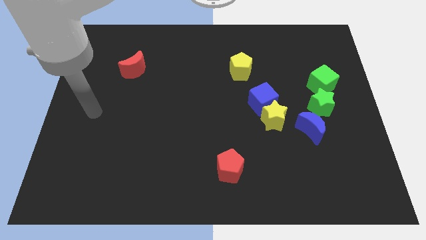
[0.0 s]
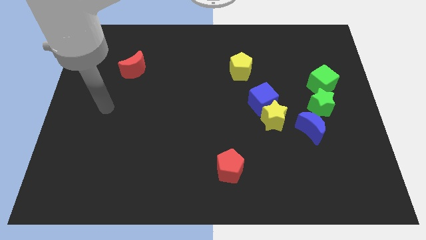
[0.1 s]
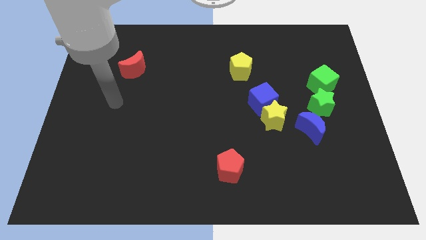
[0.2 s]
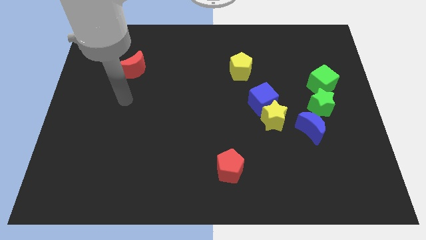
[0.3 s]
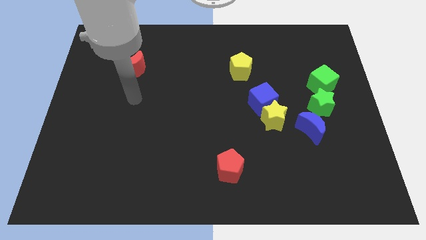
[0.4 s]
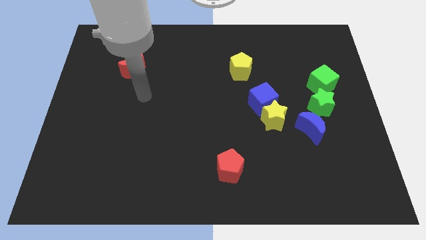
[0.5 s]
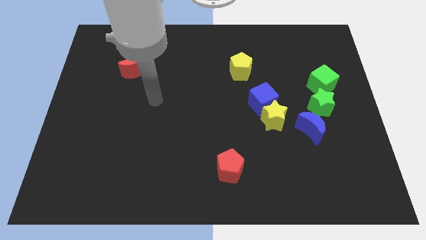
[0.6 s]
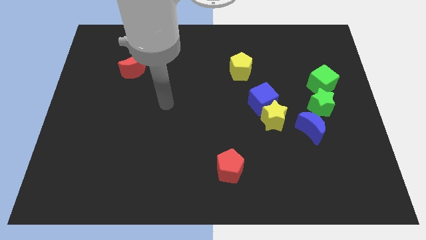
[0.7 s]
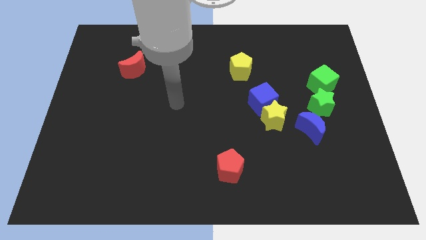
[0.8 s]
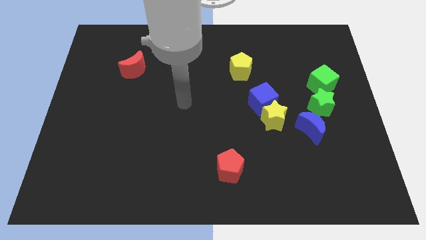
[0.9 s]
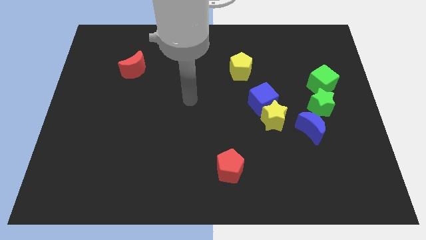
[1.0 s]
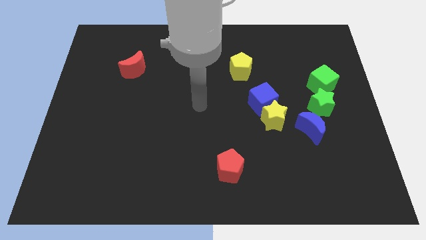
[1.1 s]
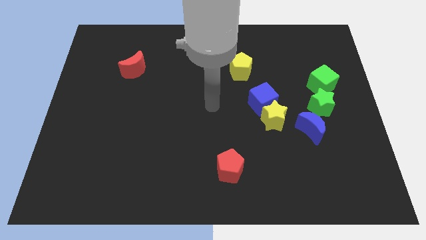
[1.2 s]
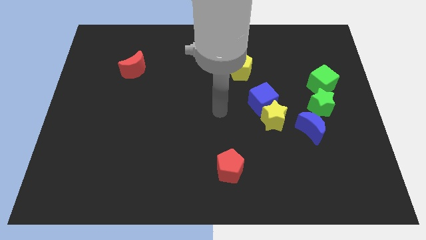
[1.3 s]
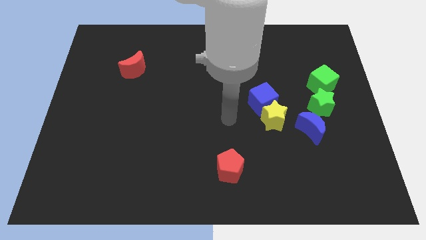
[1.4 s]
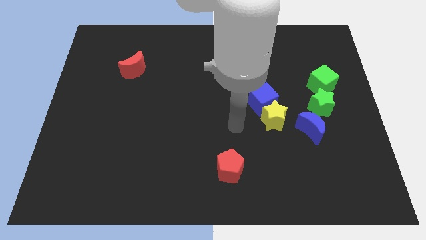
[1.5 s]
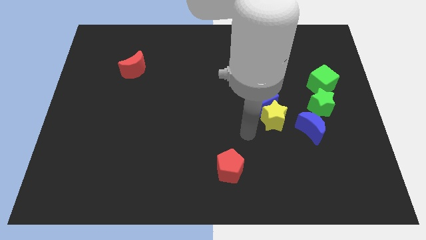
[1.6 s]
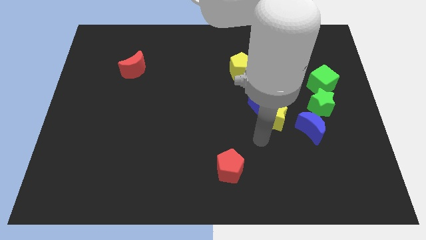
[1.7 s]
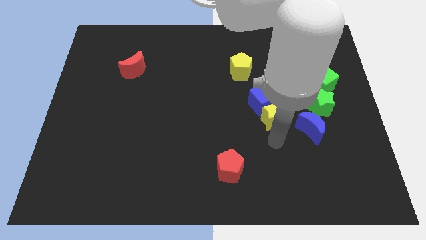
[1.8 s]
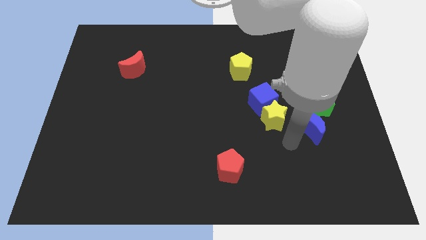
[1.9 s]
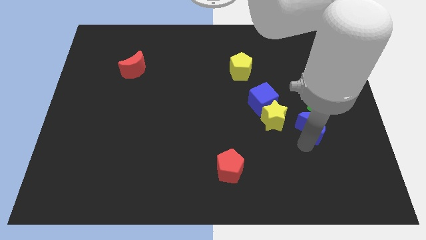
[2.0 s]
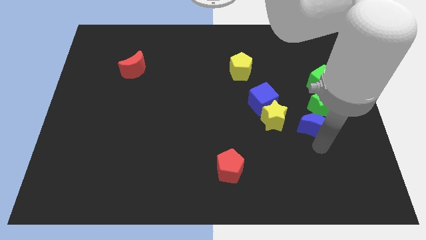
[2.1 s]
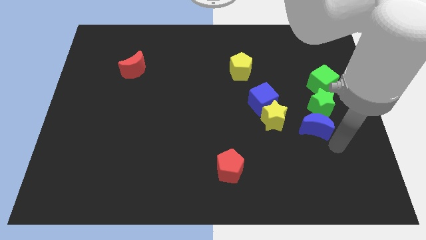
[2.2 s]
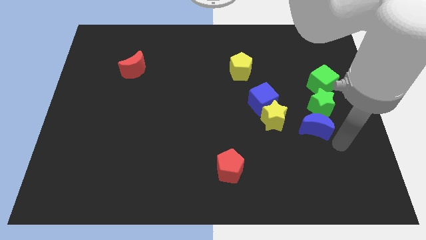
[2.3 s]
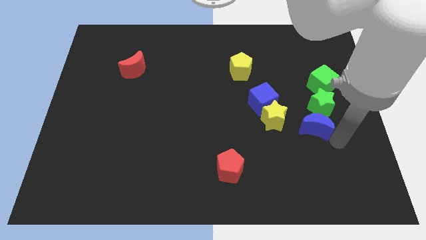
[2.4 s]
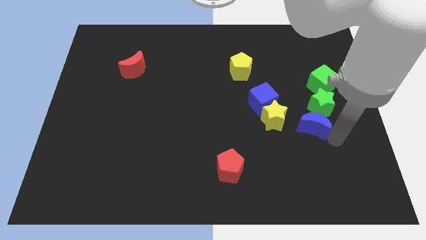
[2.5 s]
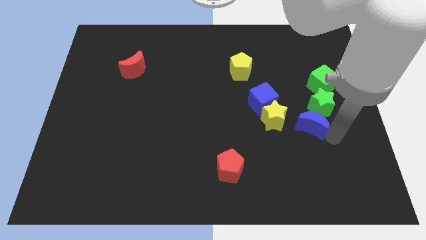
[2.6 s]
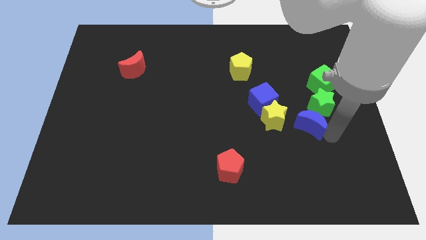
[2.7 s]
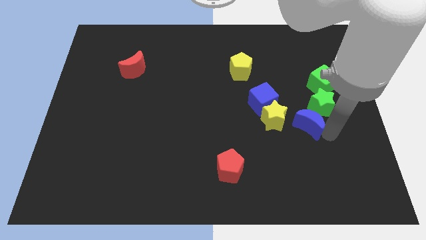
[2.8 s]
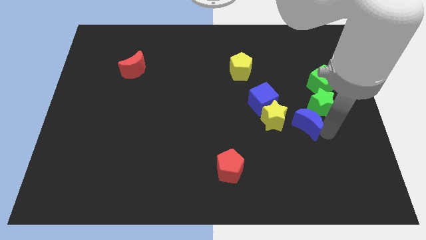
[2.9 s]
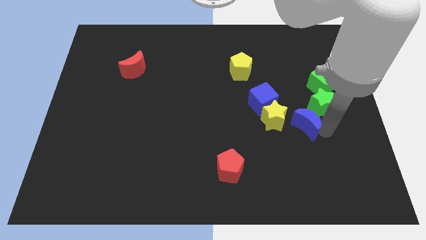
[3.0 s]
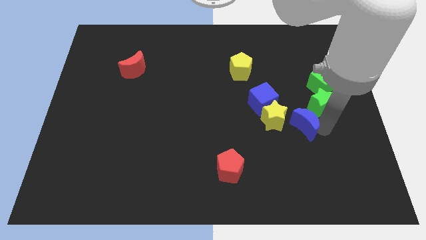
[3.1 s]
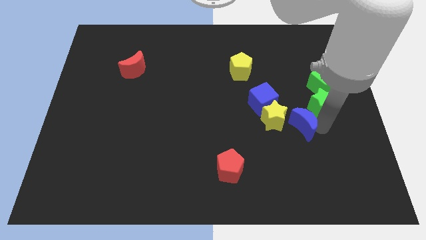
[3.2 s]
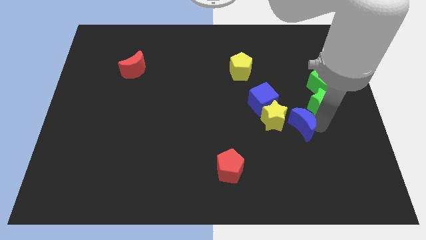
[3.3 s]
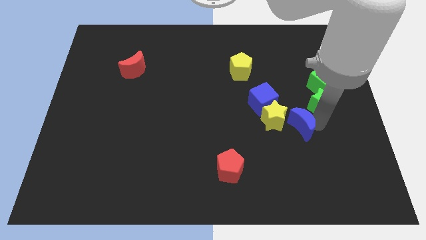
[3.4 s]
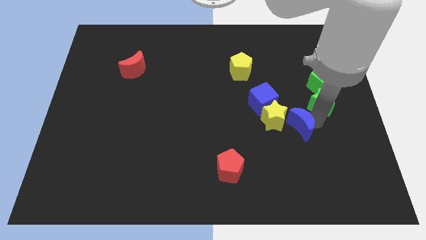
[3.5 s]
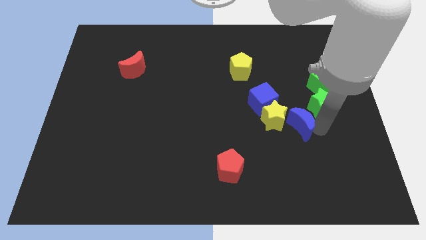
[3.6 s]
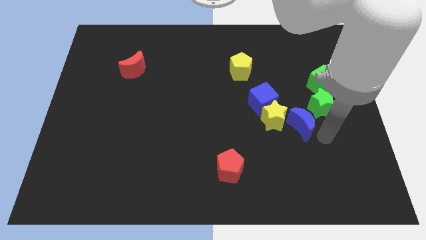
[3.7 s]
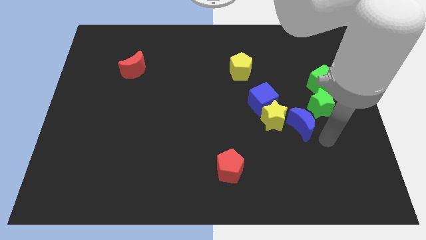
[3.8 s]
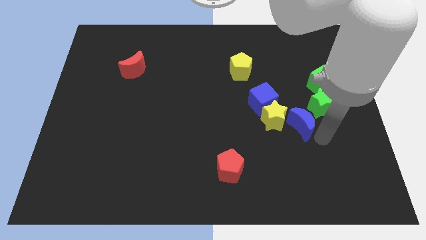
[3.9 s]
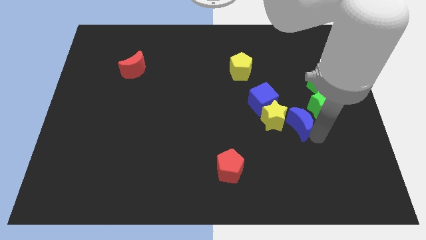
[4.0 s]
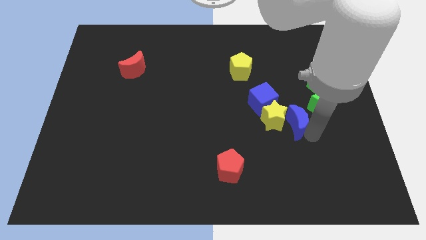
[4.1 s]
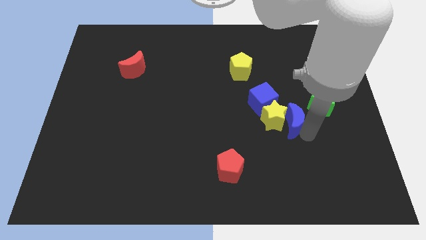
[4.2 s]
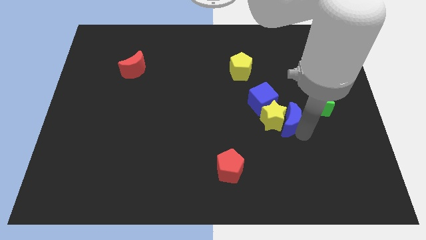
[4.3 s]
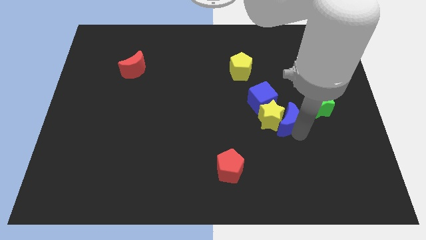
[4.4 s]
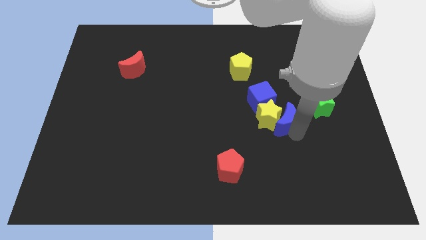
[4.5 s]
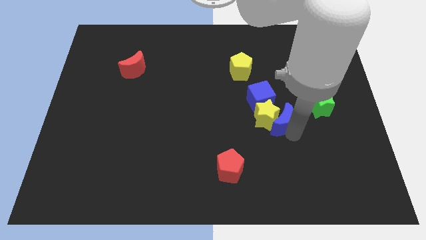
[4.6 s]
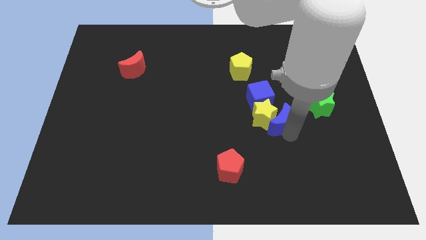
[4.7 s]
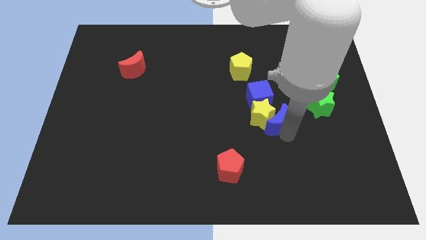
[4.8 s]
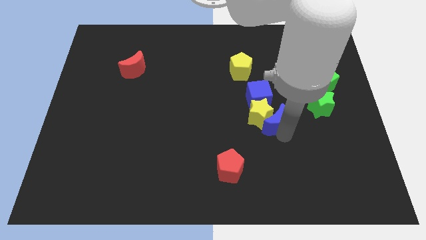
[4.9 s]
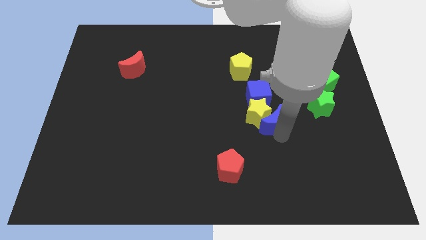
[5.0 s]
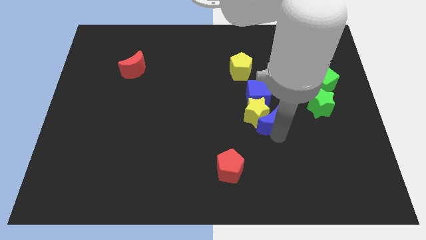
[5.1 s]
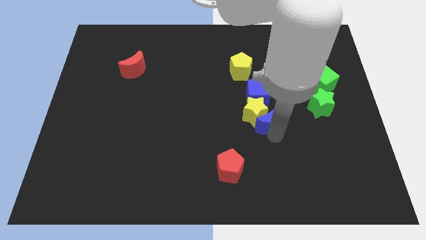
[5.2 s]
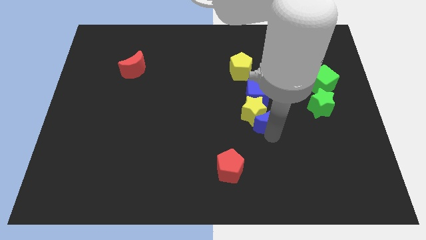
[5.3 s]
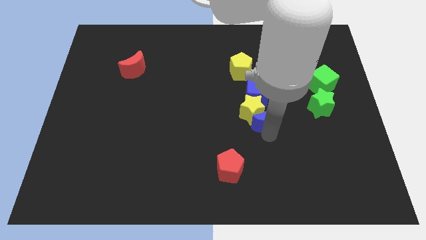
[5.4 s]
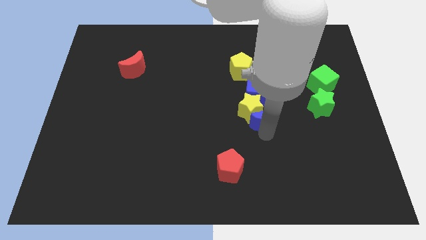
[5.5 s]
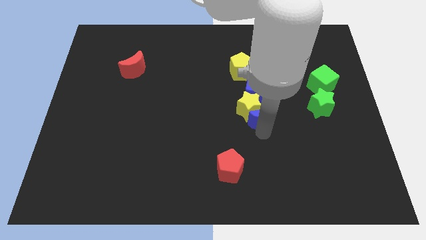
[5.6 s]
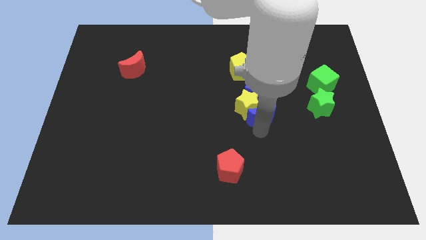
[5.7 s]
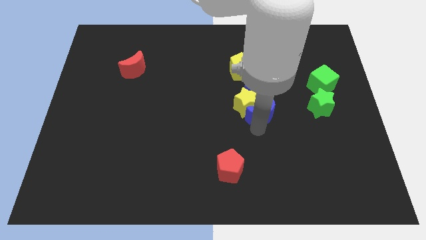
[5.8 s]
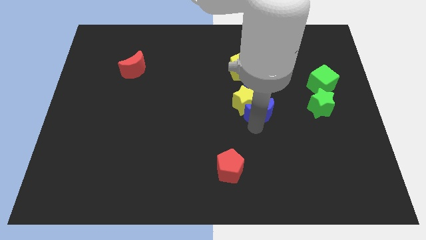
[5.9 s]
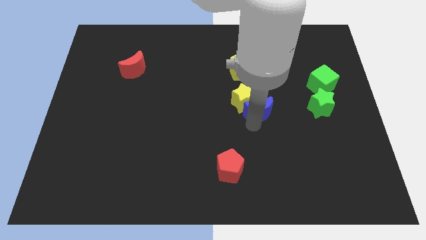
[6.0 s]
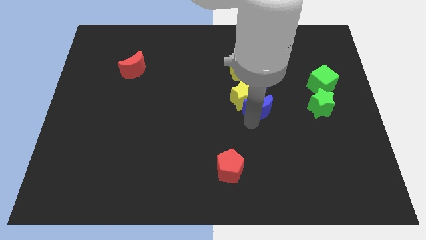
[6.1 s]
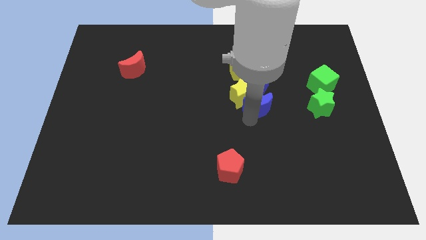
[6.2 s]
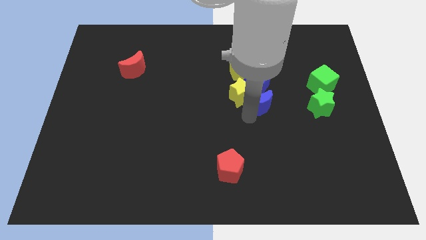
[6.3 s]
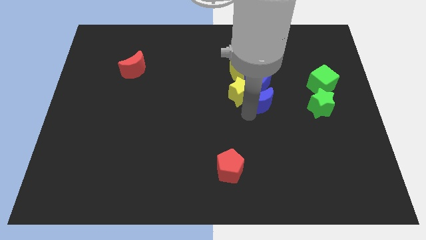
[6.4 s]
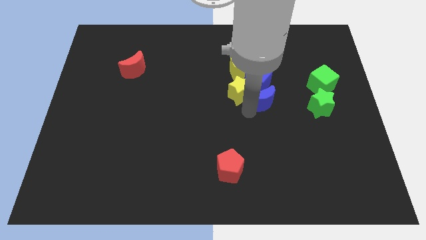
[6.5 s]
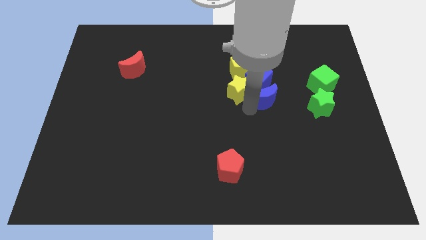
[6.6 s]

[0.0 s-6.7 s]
slide the blue moon towards the blue cube

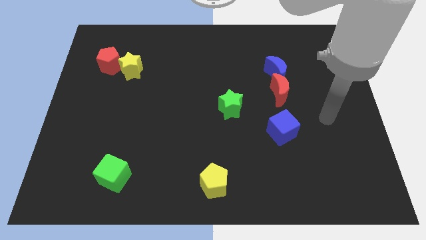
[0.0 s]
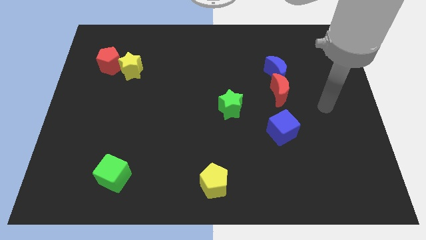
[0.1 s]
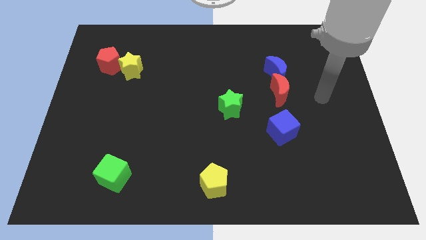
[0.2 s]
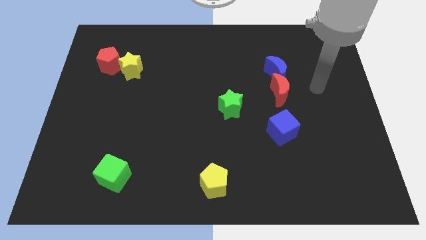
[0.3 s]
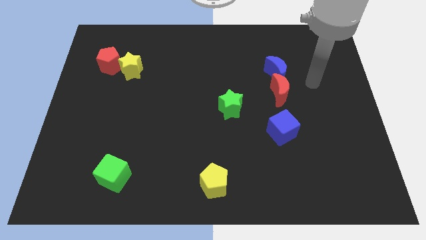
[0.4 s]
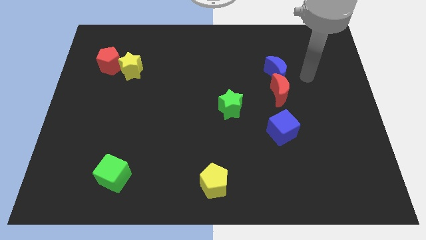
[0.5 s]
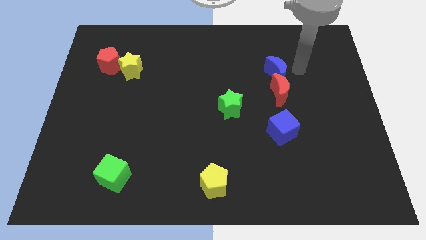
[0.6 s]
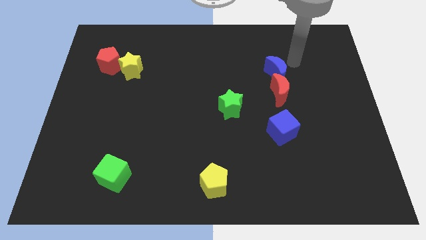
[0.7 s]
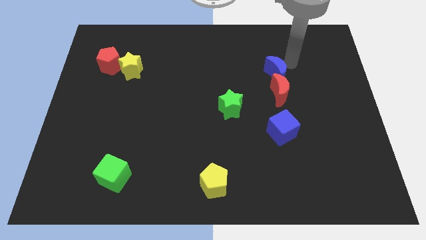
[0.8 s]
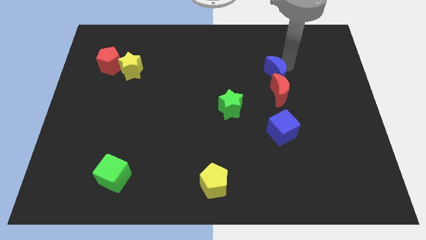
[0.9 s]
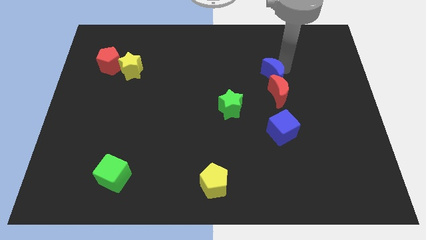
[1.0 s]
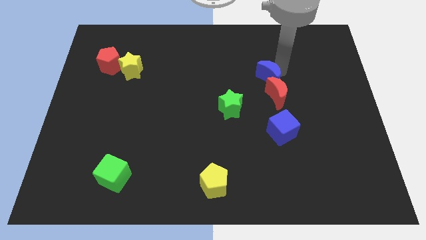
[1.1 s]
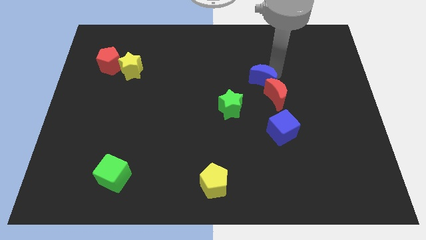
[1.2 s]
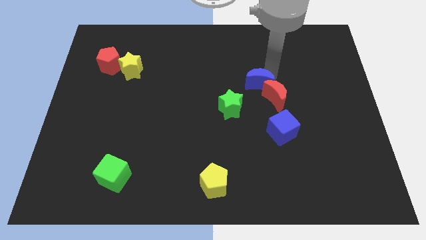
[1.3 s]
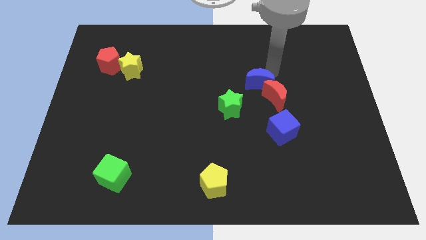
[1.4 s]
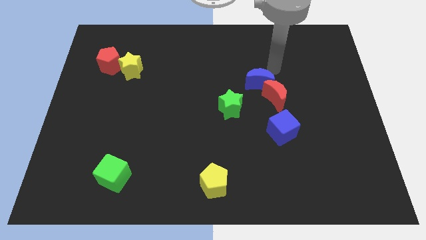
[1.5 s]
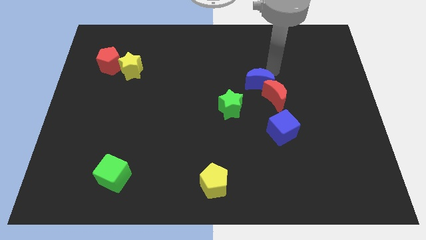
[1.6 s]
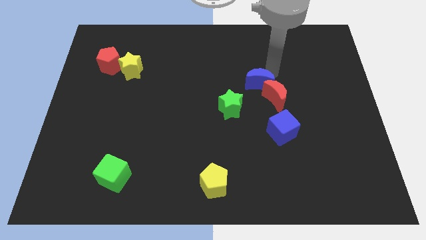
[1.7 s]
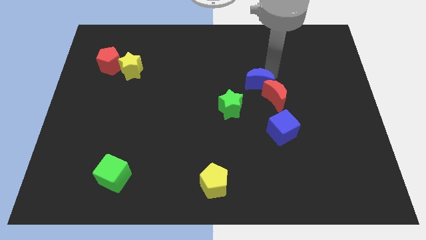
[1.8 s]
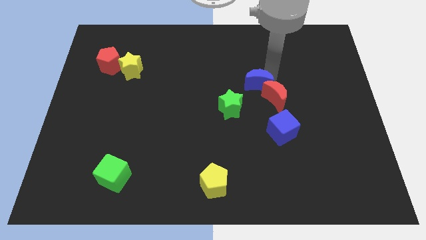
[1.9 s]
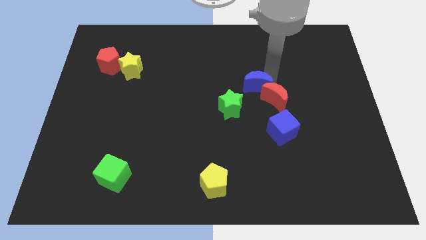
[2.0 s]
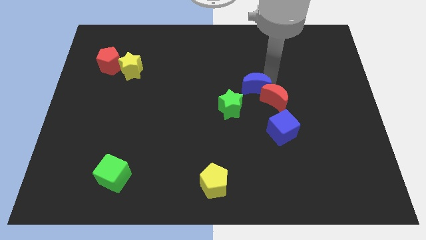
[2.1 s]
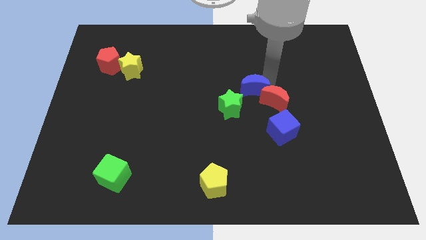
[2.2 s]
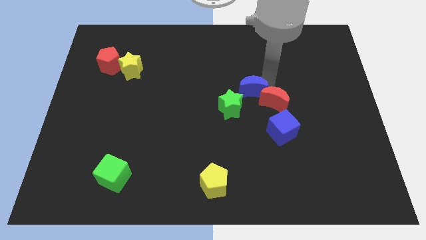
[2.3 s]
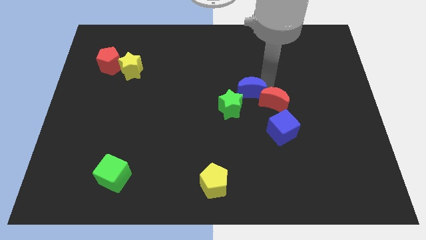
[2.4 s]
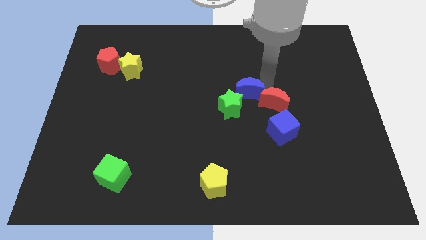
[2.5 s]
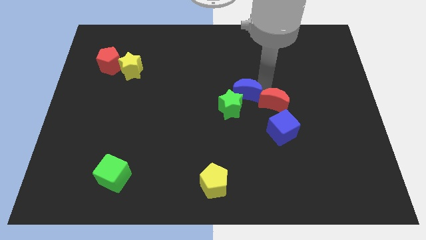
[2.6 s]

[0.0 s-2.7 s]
slide the blue moon close to the green star
